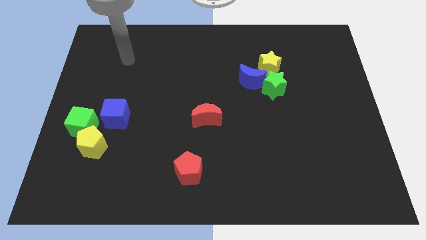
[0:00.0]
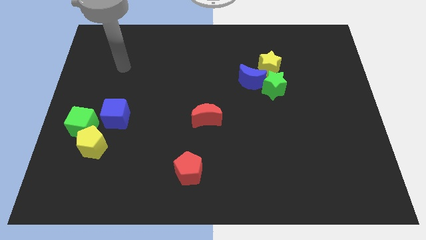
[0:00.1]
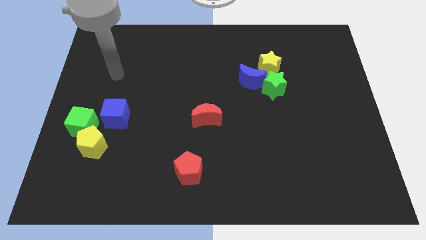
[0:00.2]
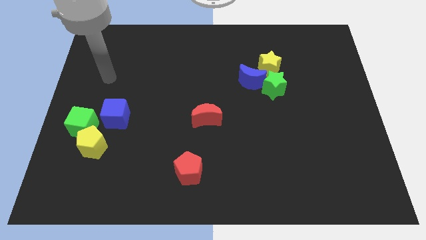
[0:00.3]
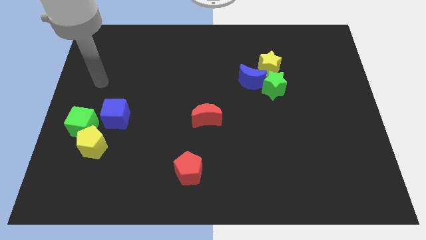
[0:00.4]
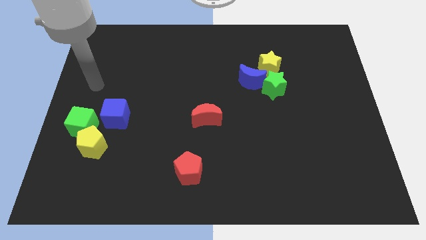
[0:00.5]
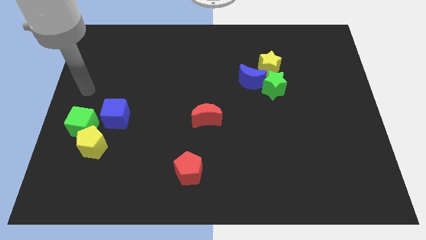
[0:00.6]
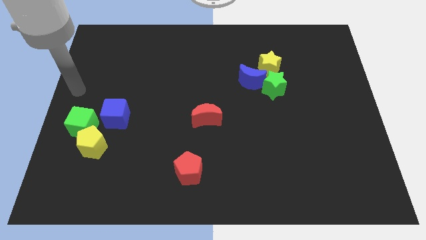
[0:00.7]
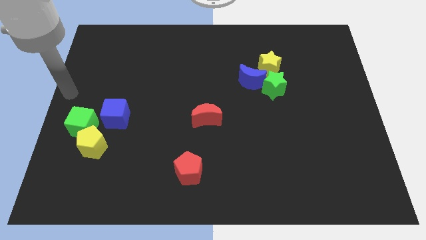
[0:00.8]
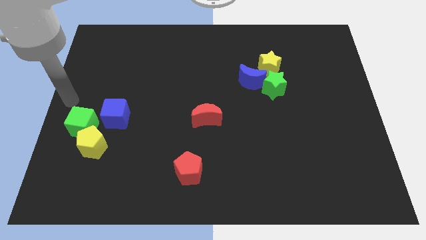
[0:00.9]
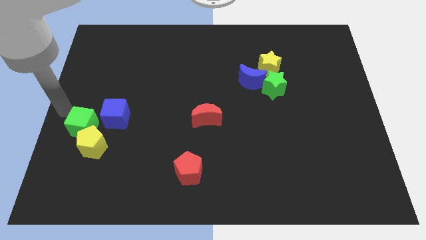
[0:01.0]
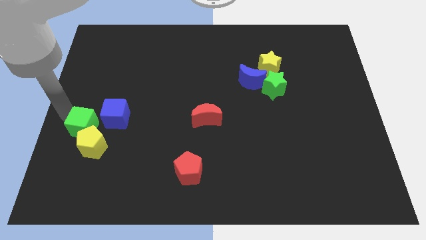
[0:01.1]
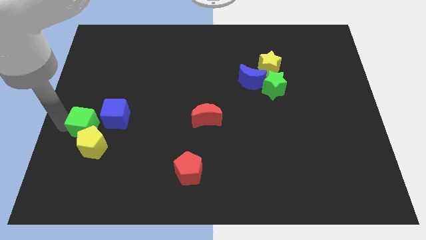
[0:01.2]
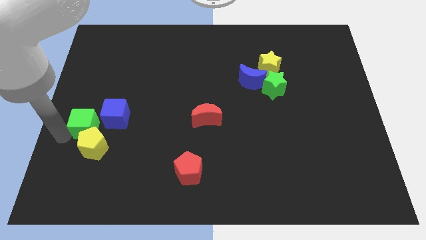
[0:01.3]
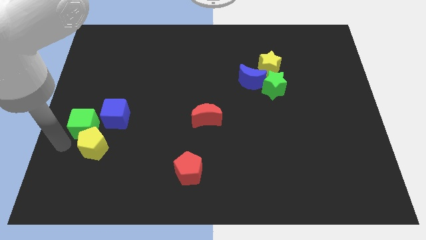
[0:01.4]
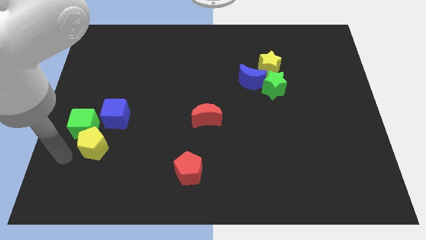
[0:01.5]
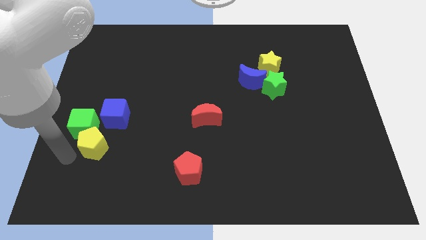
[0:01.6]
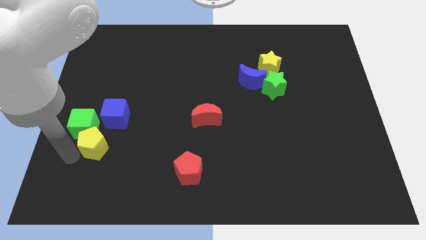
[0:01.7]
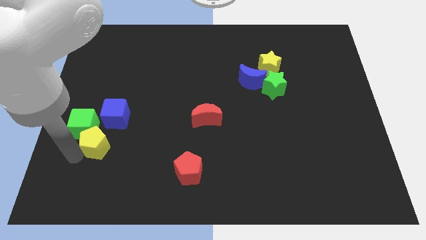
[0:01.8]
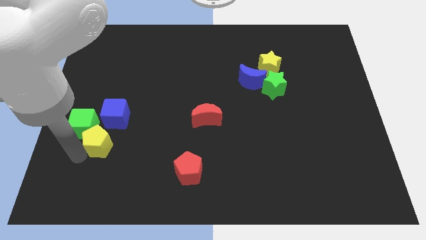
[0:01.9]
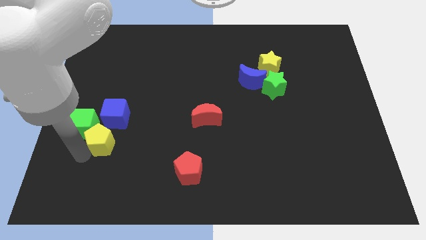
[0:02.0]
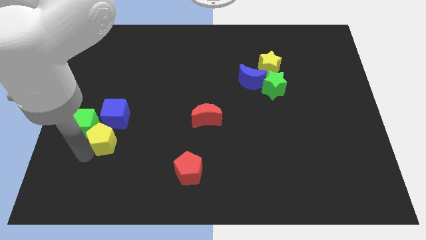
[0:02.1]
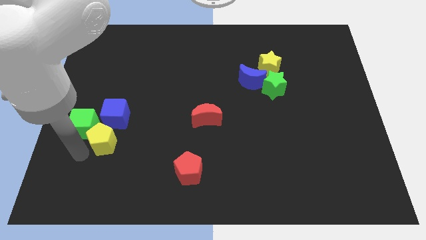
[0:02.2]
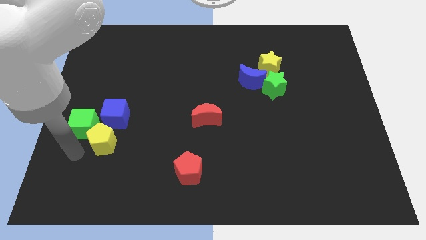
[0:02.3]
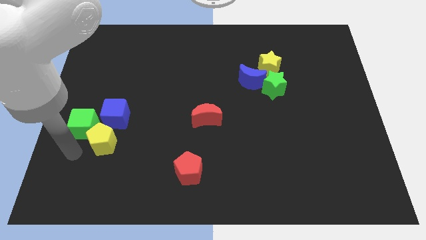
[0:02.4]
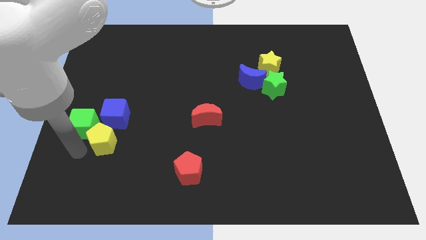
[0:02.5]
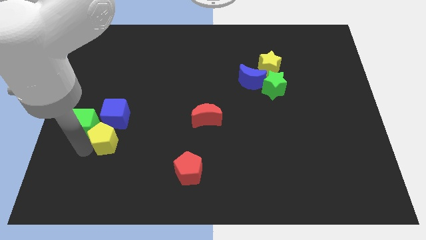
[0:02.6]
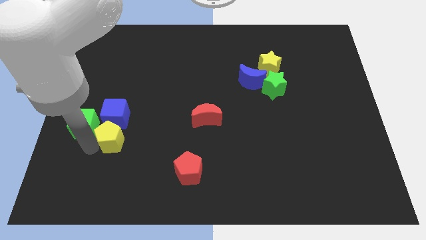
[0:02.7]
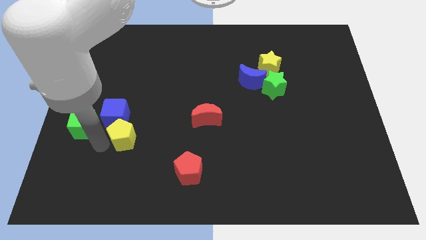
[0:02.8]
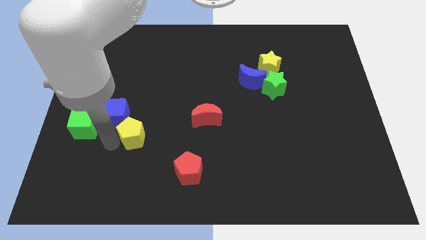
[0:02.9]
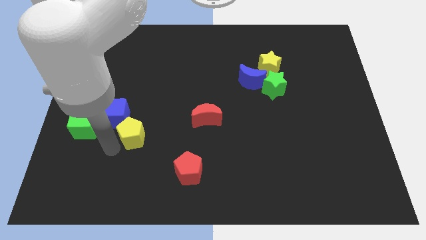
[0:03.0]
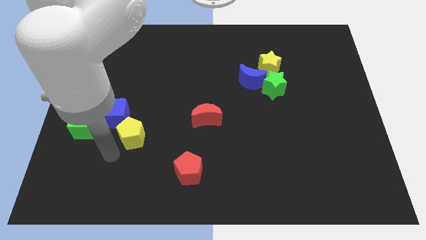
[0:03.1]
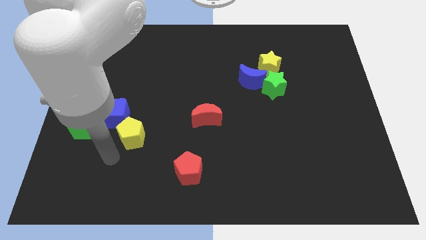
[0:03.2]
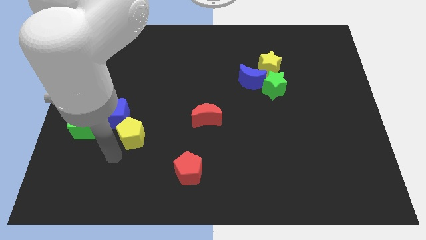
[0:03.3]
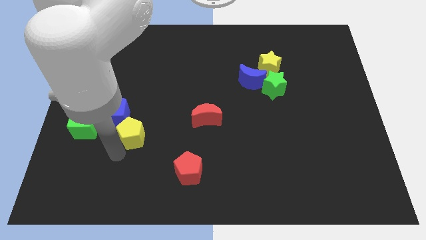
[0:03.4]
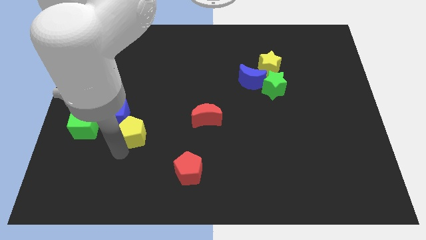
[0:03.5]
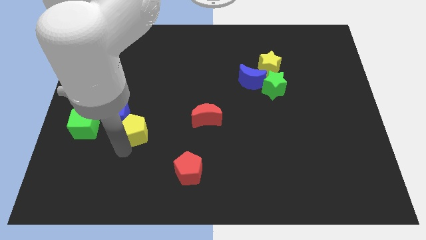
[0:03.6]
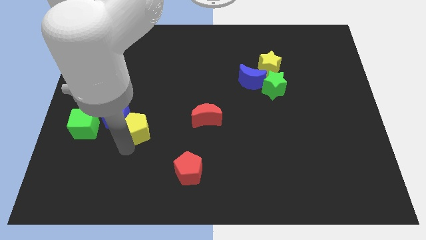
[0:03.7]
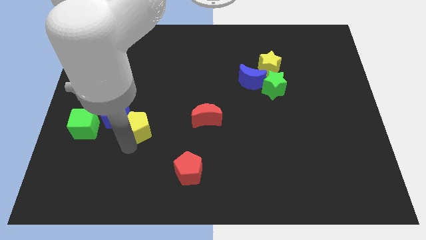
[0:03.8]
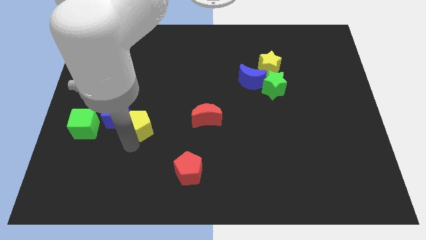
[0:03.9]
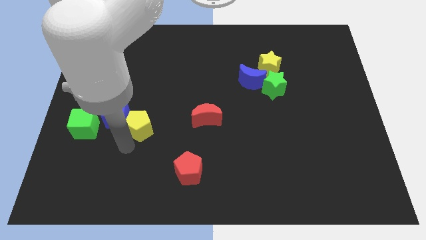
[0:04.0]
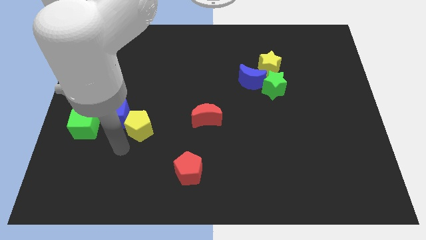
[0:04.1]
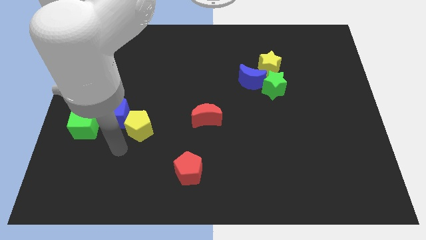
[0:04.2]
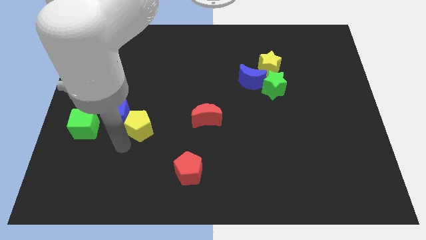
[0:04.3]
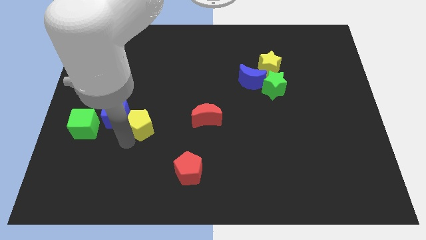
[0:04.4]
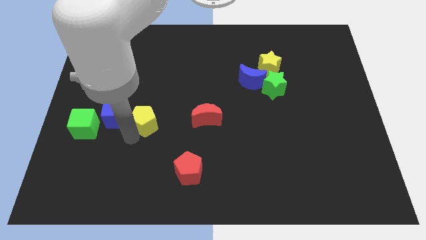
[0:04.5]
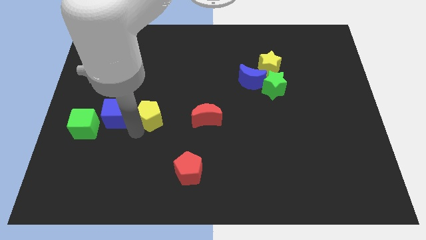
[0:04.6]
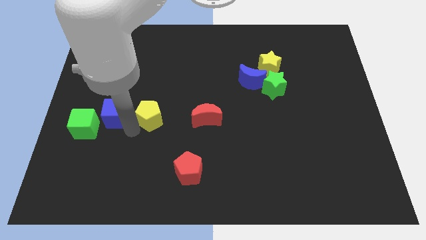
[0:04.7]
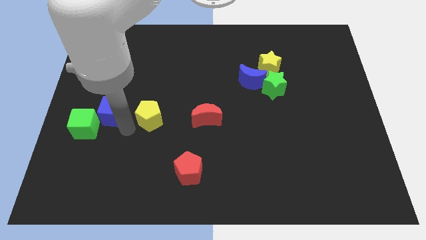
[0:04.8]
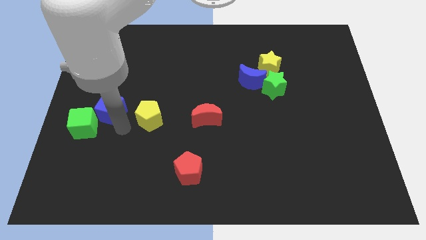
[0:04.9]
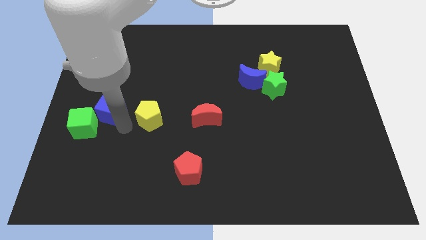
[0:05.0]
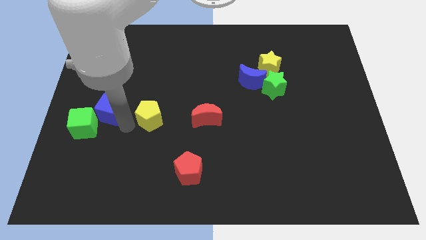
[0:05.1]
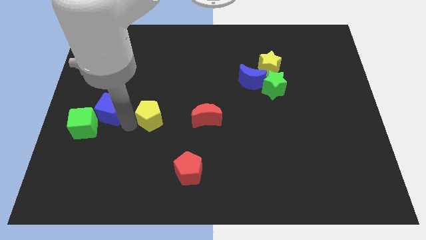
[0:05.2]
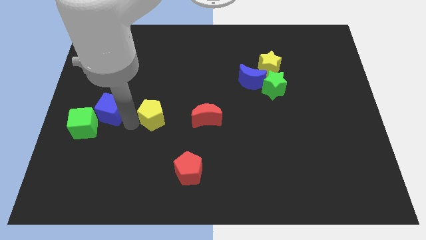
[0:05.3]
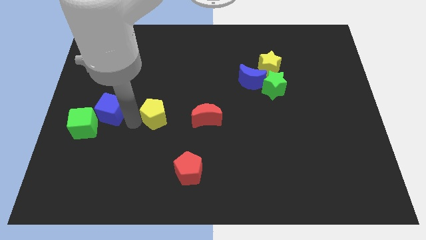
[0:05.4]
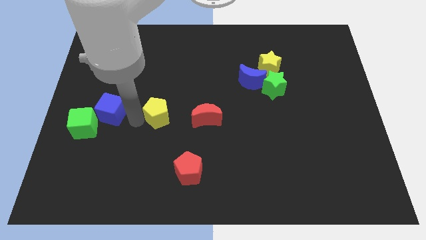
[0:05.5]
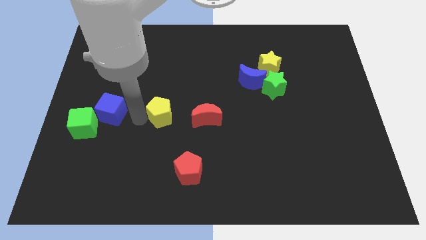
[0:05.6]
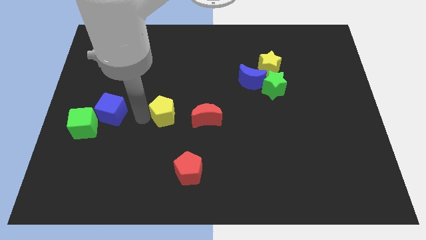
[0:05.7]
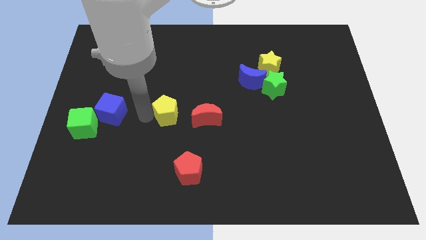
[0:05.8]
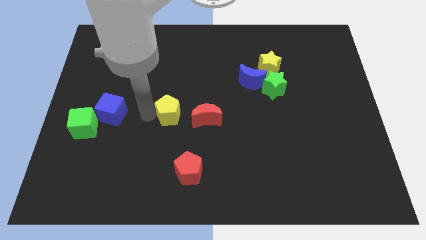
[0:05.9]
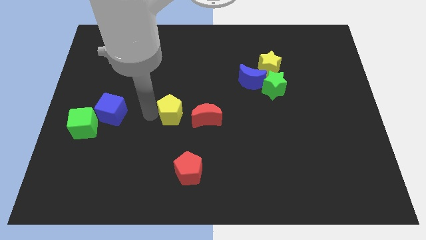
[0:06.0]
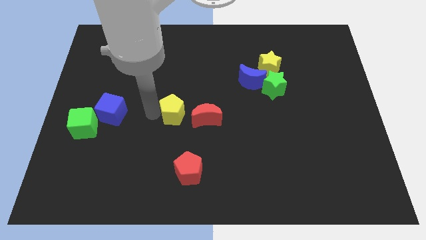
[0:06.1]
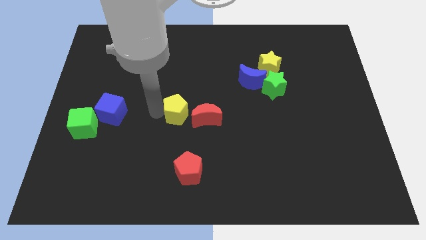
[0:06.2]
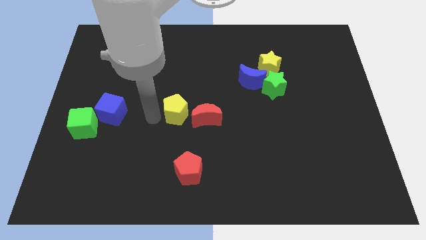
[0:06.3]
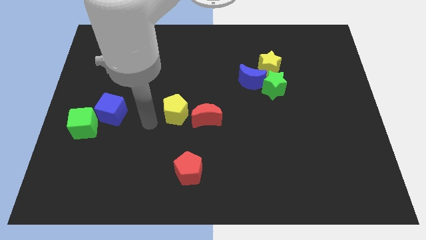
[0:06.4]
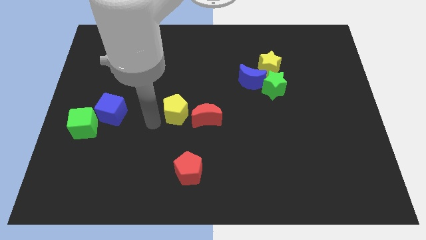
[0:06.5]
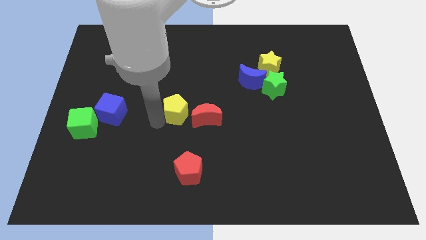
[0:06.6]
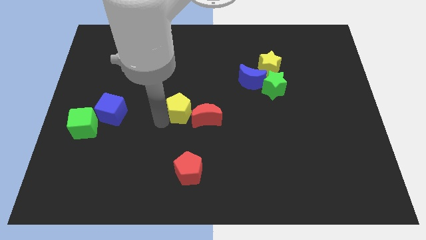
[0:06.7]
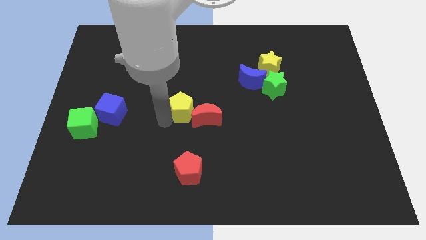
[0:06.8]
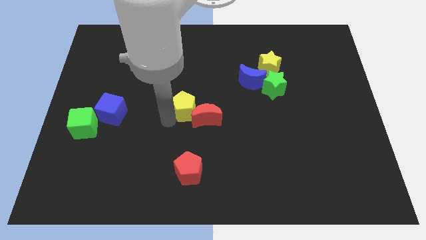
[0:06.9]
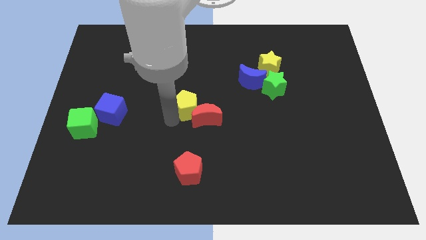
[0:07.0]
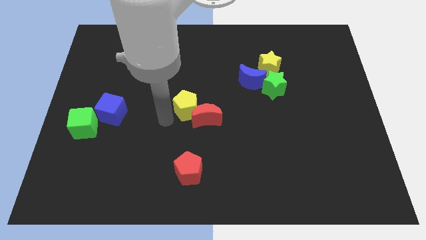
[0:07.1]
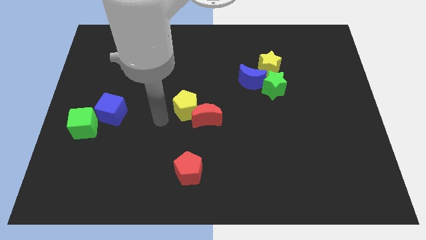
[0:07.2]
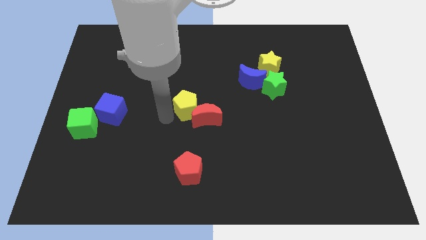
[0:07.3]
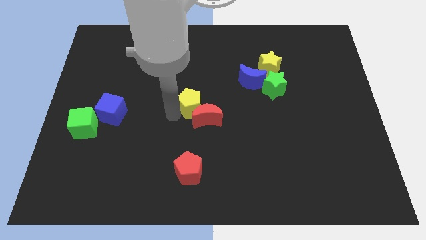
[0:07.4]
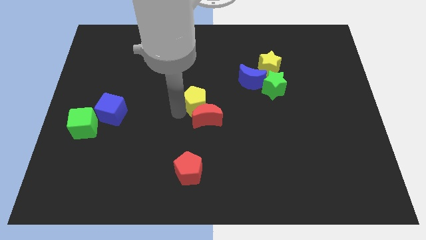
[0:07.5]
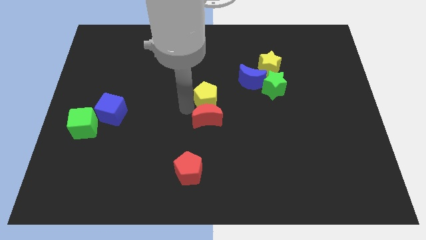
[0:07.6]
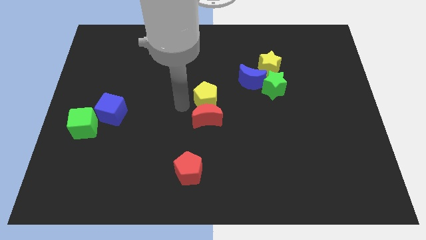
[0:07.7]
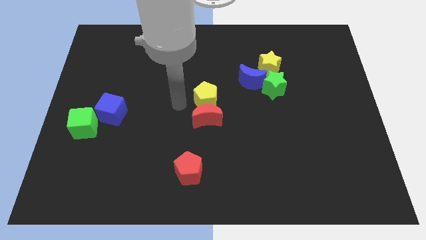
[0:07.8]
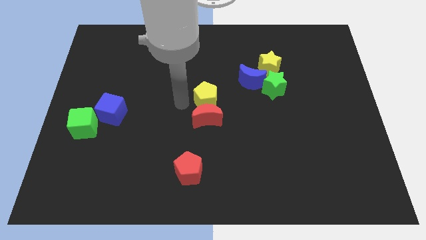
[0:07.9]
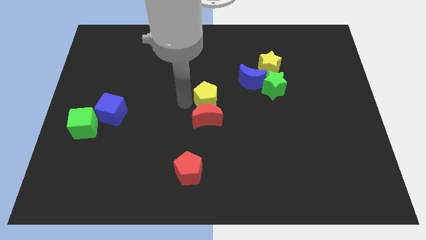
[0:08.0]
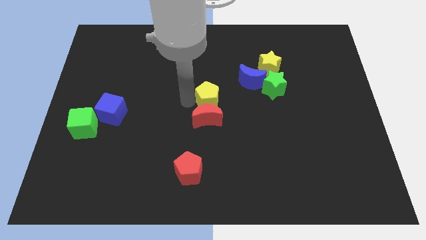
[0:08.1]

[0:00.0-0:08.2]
move the yellow pentagon to the bottom left of the blue moon
